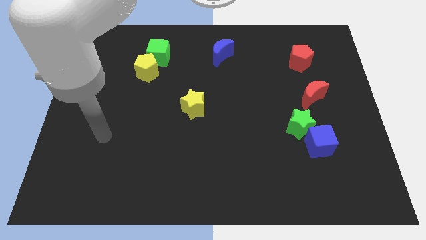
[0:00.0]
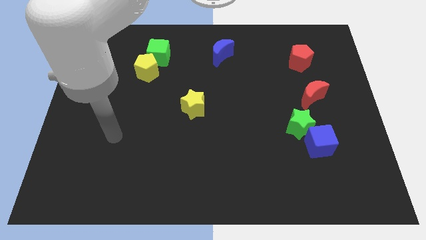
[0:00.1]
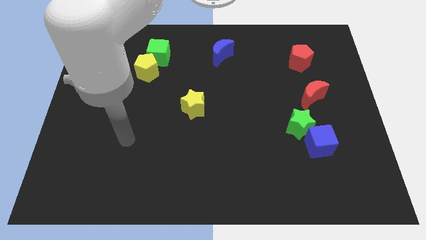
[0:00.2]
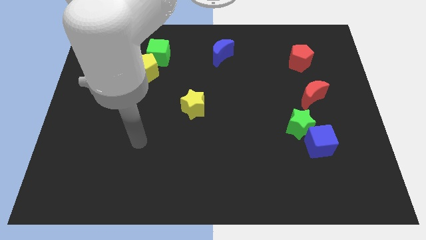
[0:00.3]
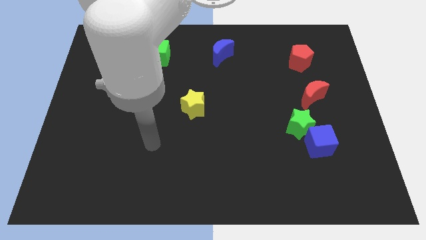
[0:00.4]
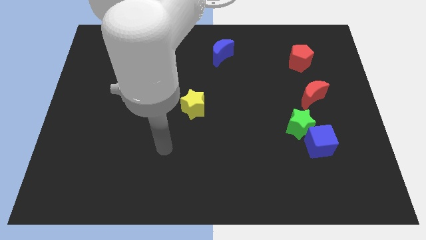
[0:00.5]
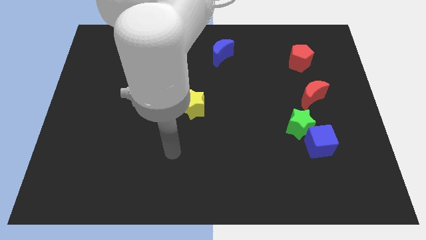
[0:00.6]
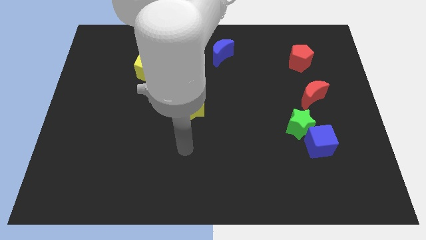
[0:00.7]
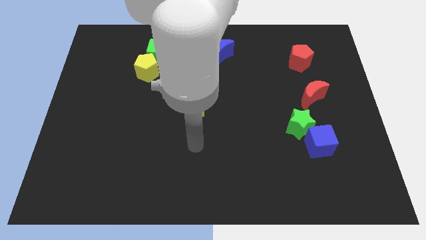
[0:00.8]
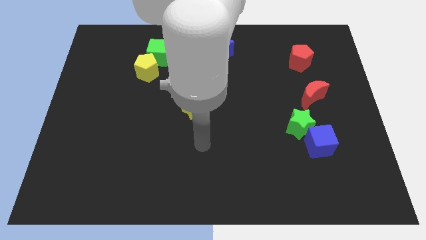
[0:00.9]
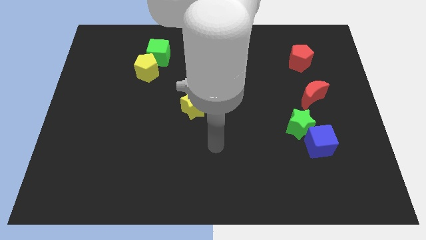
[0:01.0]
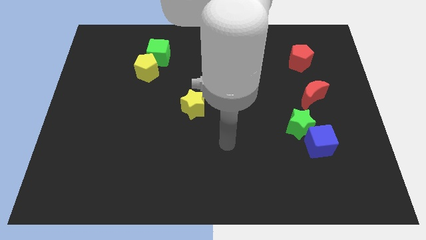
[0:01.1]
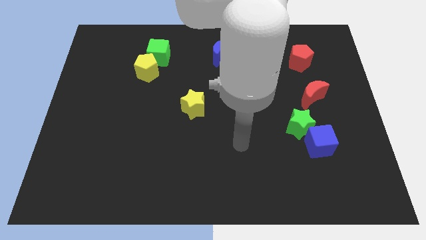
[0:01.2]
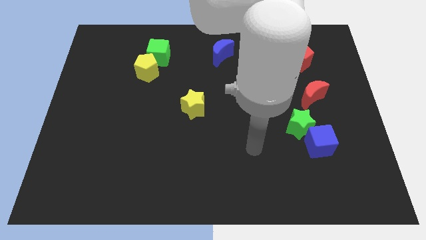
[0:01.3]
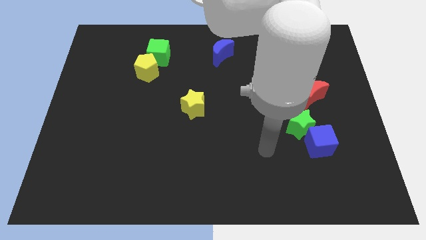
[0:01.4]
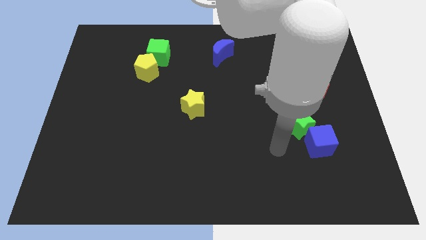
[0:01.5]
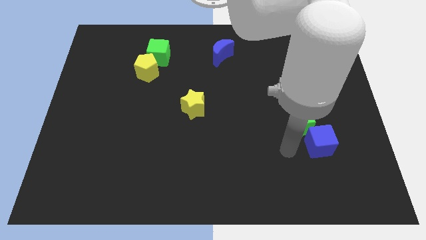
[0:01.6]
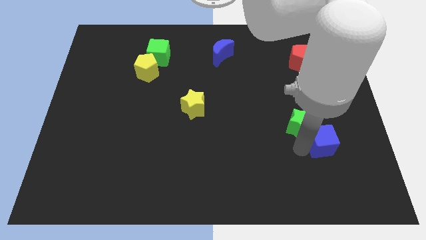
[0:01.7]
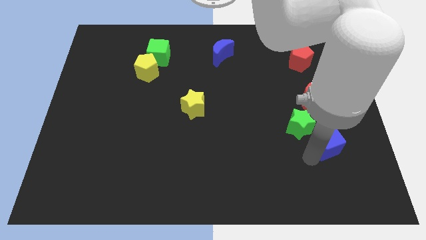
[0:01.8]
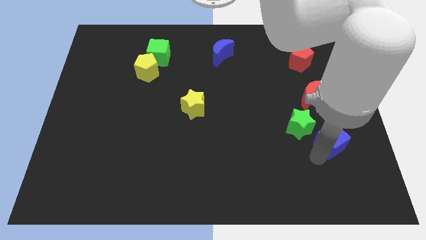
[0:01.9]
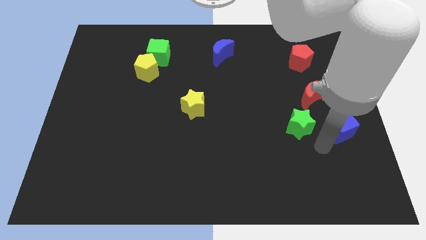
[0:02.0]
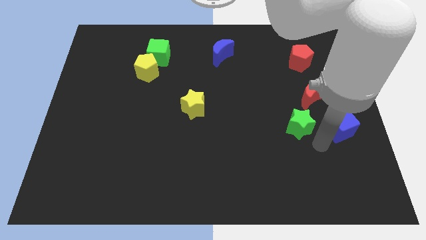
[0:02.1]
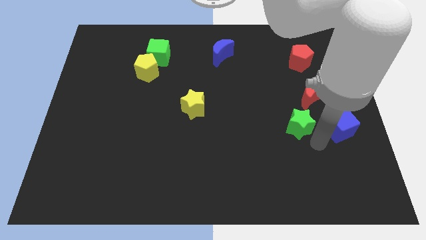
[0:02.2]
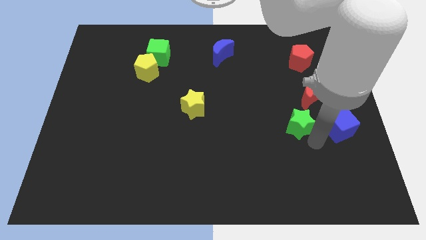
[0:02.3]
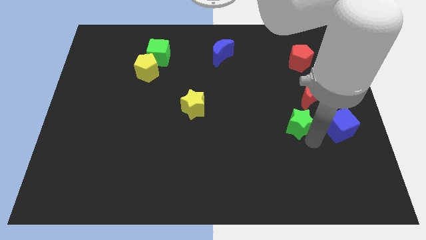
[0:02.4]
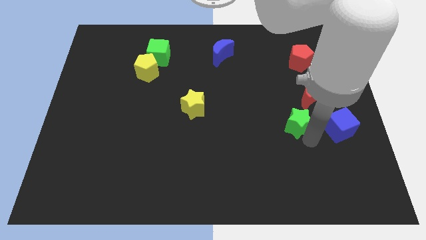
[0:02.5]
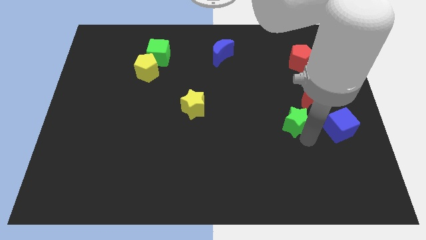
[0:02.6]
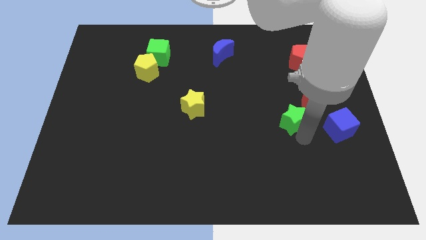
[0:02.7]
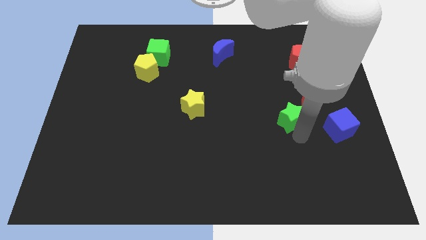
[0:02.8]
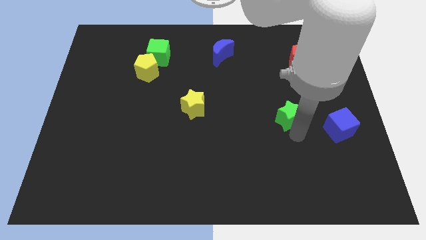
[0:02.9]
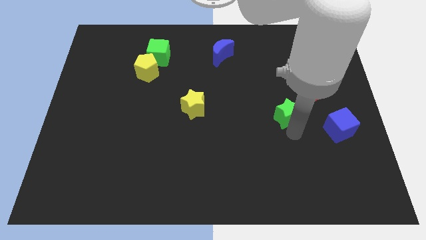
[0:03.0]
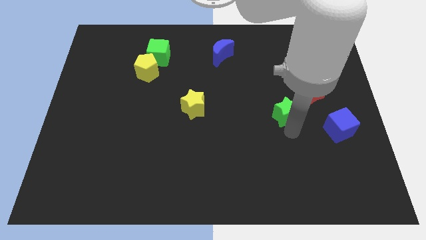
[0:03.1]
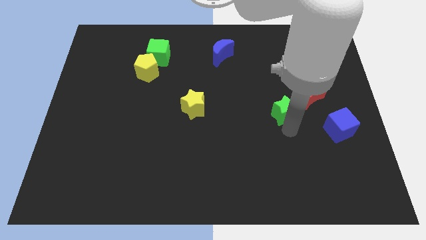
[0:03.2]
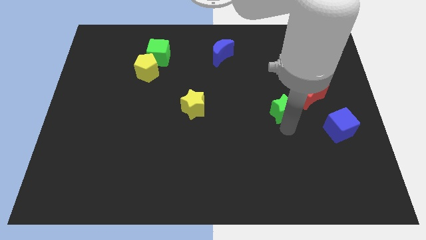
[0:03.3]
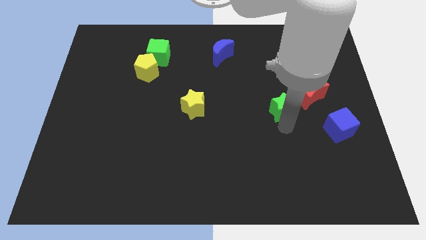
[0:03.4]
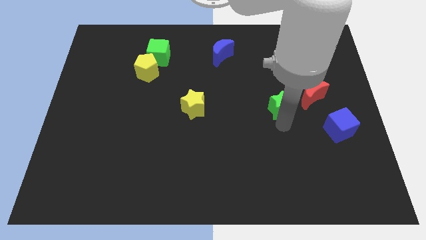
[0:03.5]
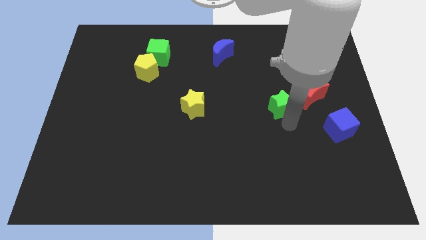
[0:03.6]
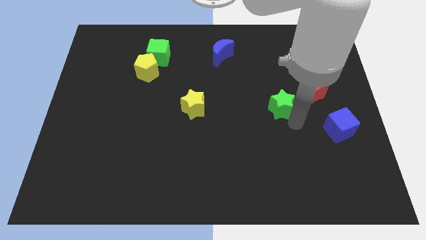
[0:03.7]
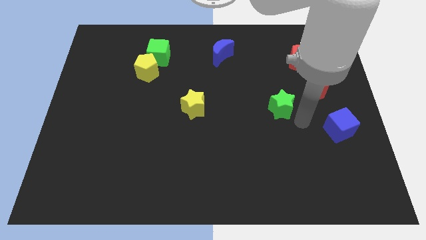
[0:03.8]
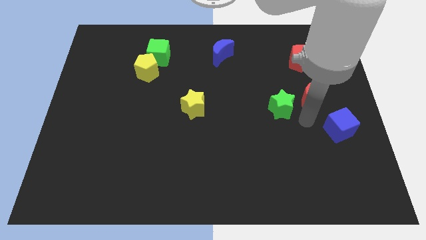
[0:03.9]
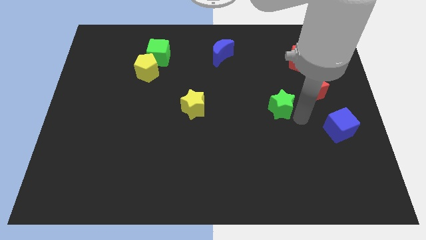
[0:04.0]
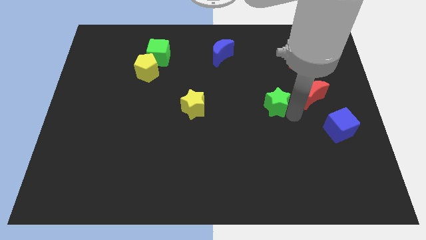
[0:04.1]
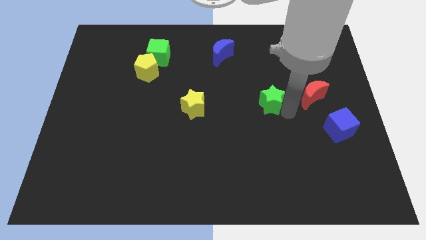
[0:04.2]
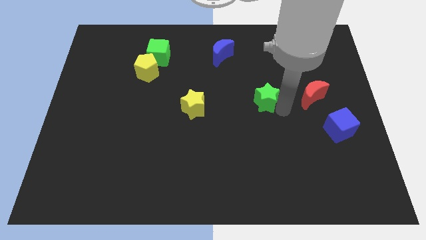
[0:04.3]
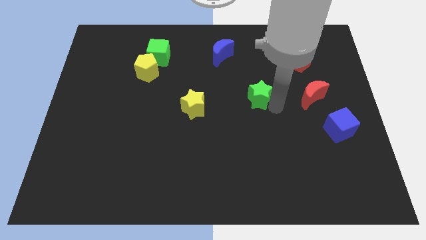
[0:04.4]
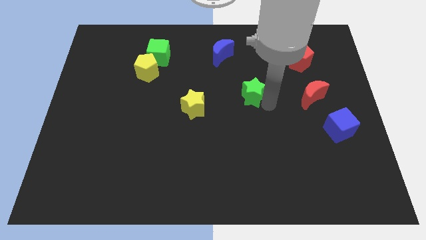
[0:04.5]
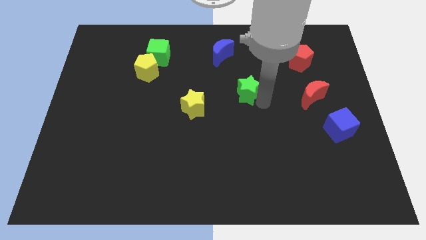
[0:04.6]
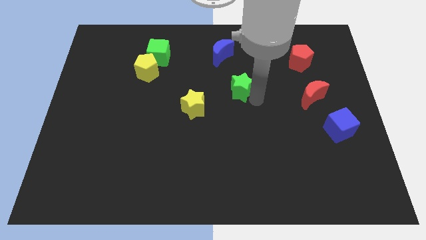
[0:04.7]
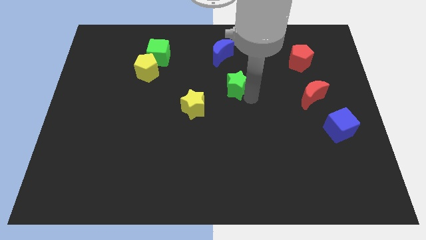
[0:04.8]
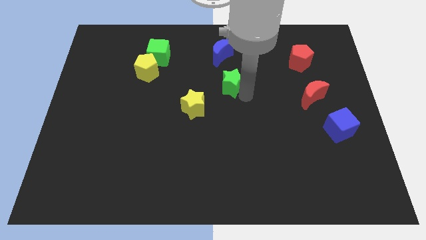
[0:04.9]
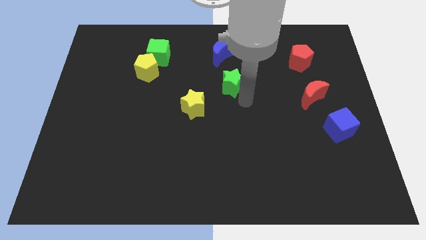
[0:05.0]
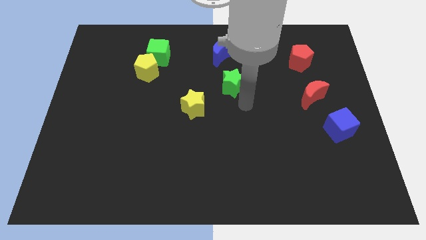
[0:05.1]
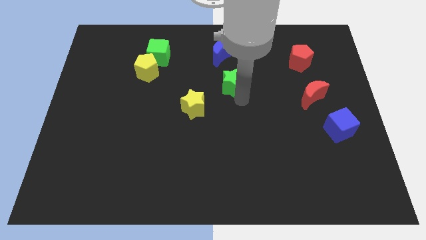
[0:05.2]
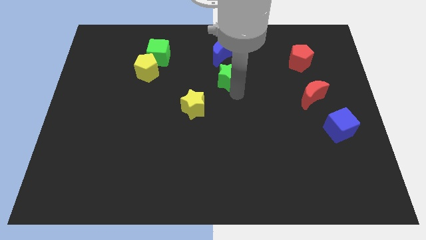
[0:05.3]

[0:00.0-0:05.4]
push the green star upwards and left

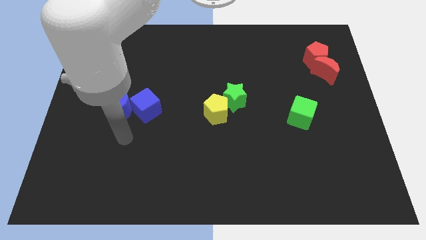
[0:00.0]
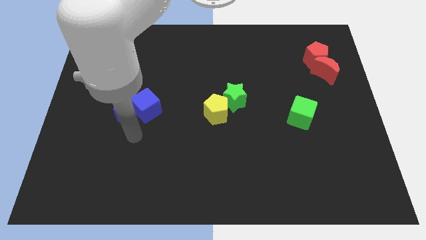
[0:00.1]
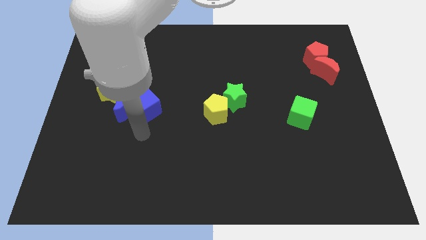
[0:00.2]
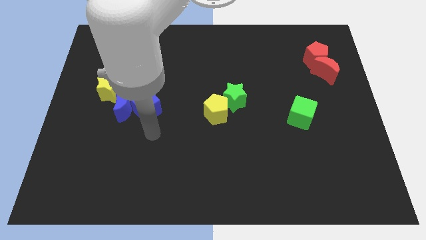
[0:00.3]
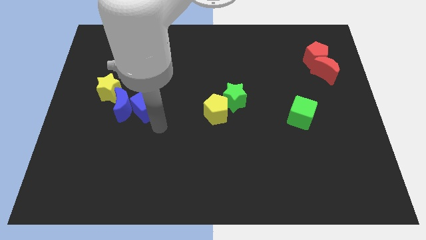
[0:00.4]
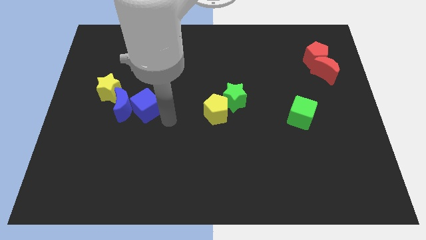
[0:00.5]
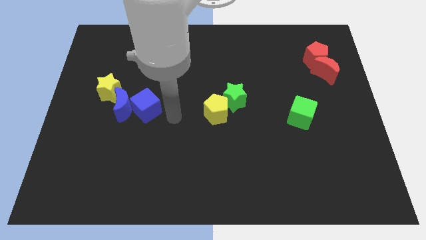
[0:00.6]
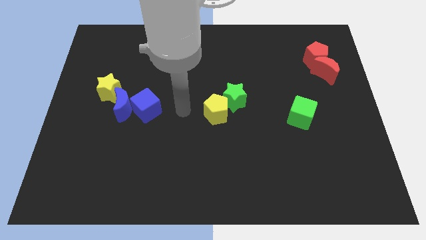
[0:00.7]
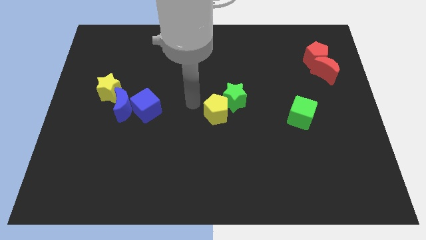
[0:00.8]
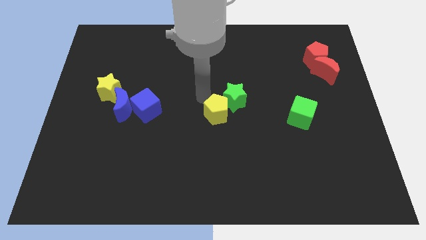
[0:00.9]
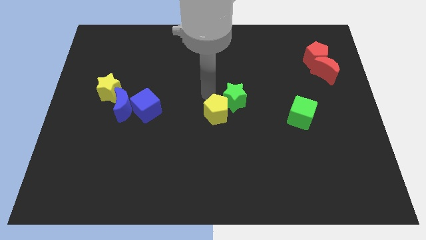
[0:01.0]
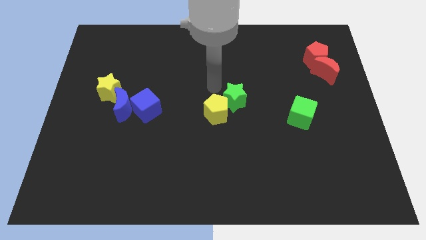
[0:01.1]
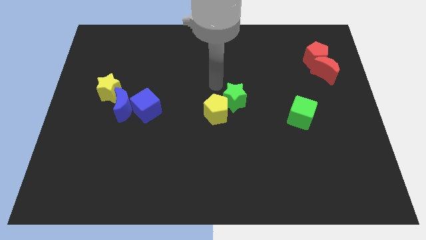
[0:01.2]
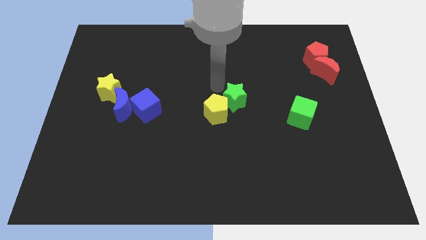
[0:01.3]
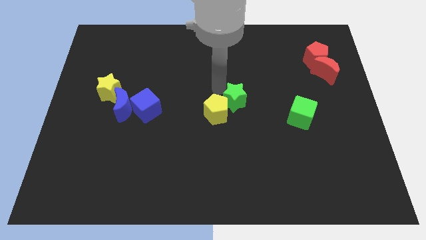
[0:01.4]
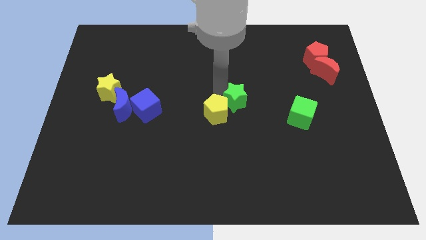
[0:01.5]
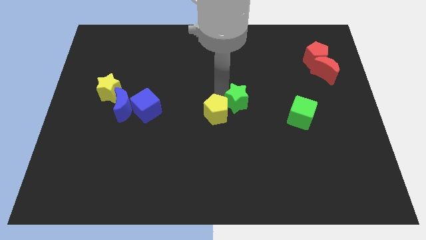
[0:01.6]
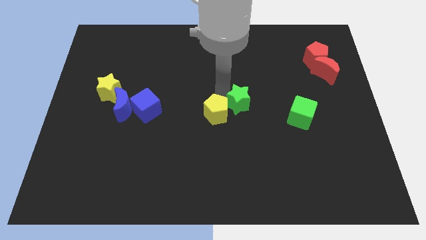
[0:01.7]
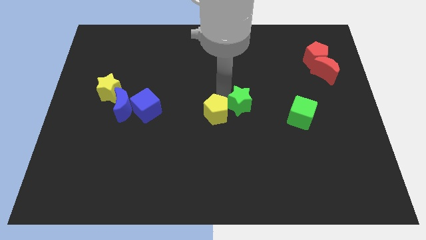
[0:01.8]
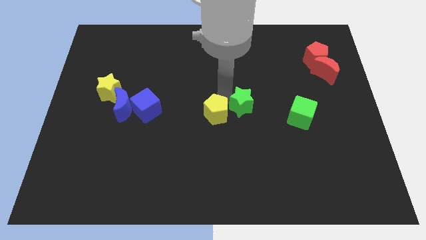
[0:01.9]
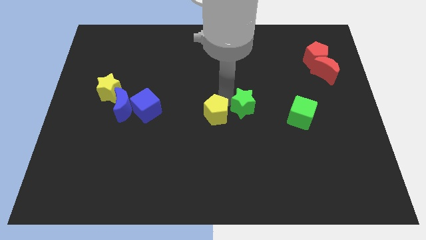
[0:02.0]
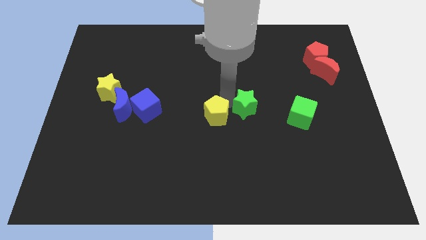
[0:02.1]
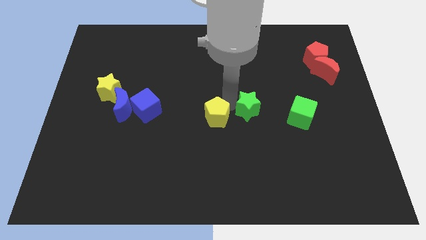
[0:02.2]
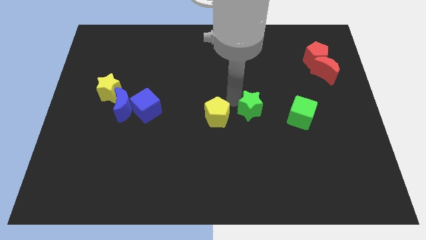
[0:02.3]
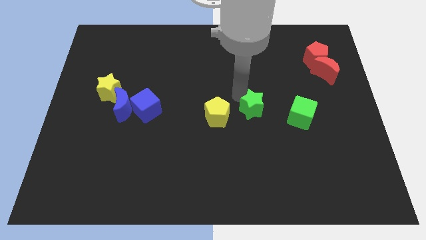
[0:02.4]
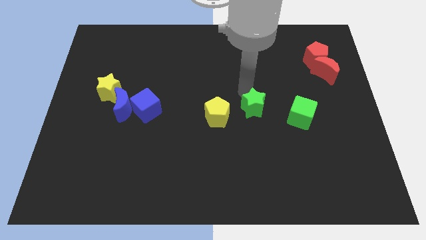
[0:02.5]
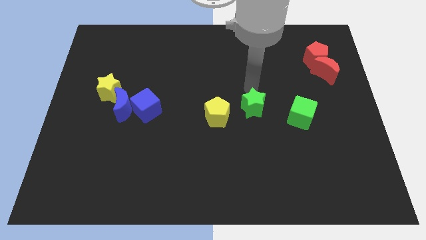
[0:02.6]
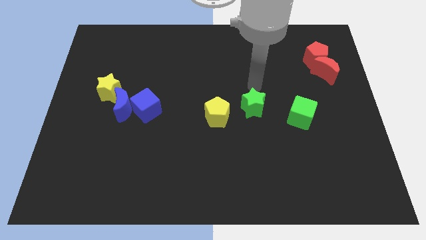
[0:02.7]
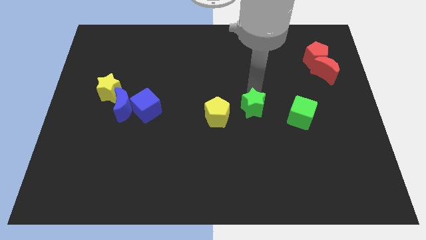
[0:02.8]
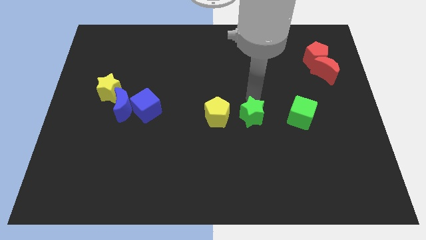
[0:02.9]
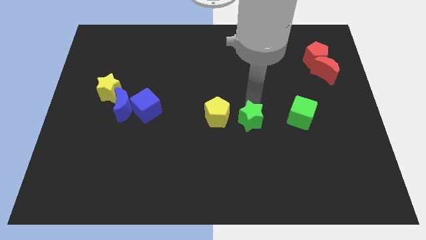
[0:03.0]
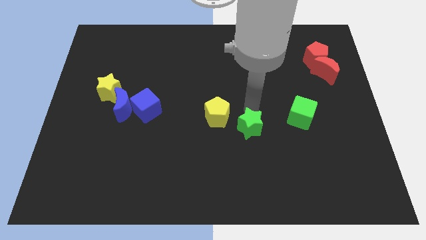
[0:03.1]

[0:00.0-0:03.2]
push the green star downwards a bit
